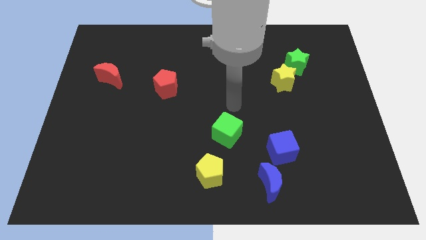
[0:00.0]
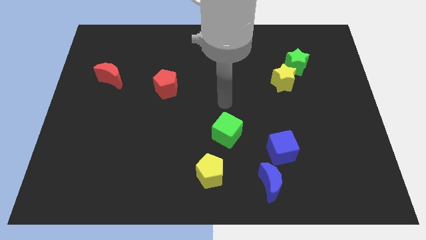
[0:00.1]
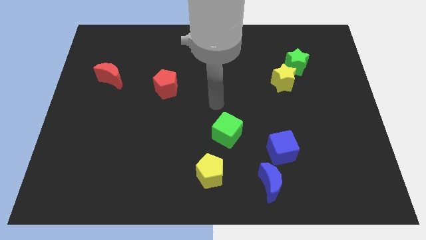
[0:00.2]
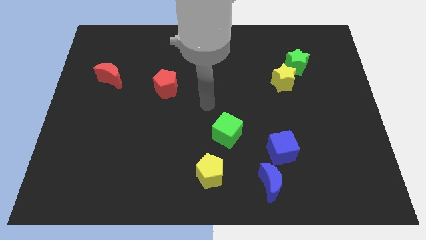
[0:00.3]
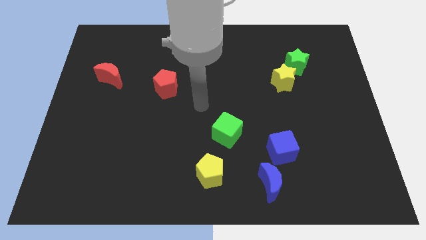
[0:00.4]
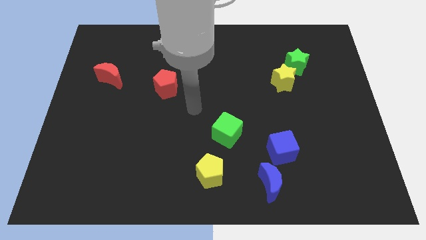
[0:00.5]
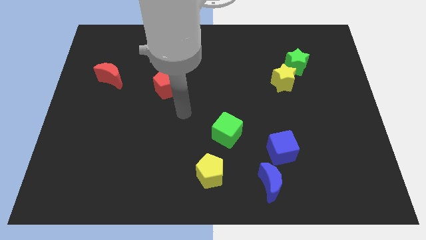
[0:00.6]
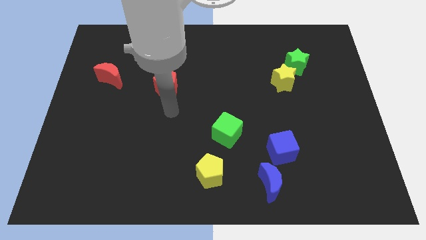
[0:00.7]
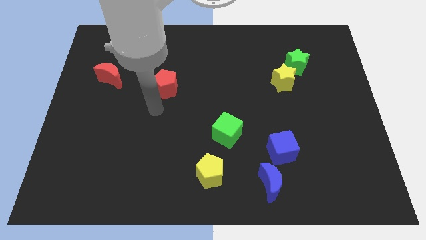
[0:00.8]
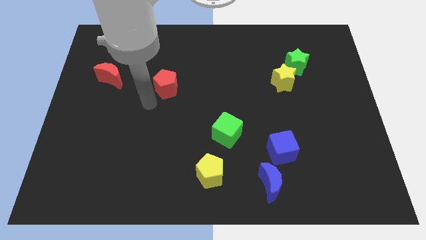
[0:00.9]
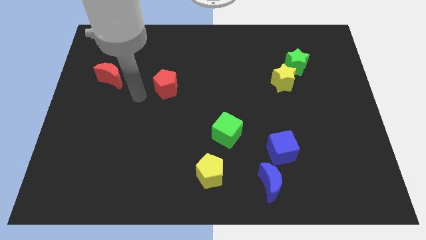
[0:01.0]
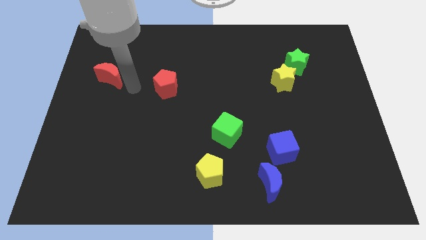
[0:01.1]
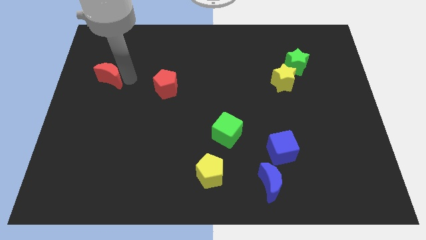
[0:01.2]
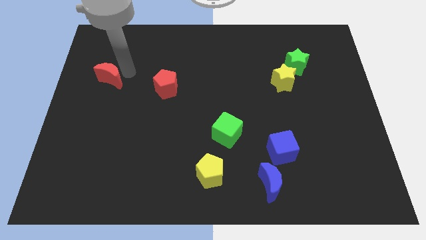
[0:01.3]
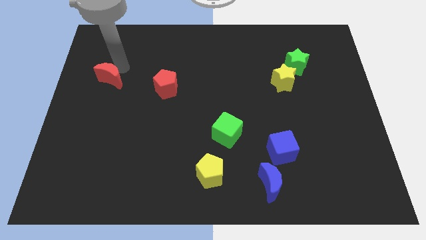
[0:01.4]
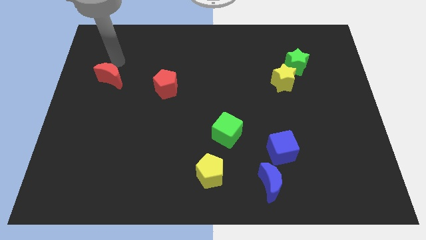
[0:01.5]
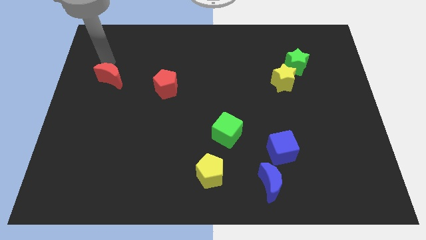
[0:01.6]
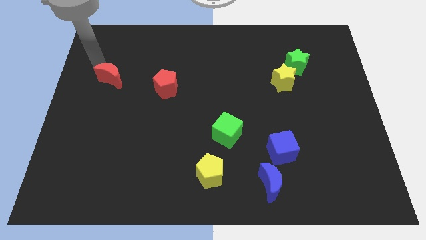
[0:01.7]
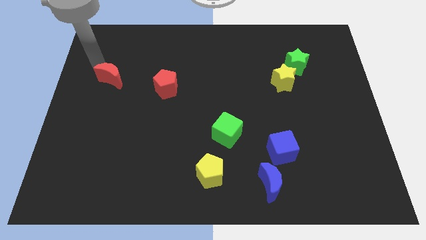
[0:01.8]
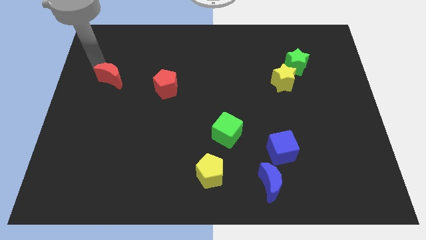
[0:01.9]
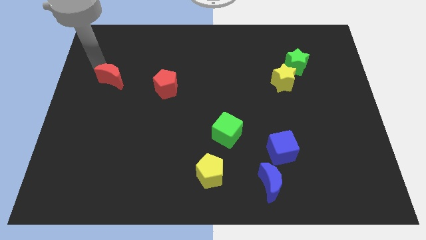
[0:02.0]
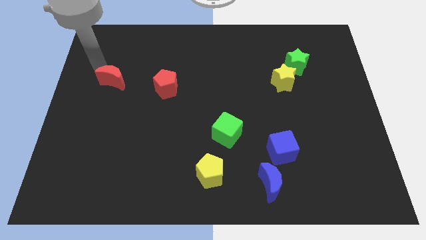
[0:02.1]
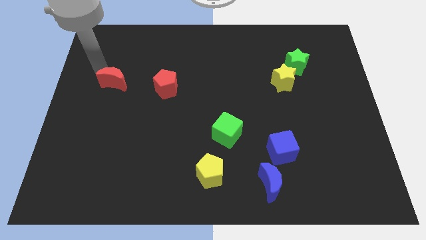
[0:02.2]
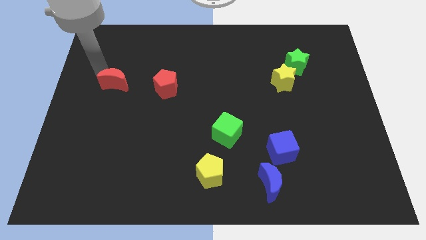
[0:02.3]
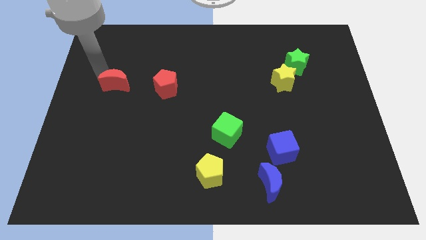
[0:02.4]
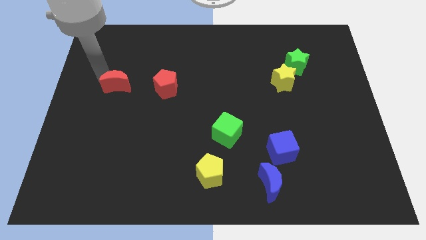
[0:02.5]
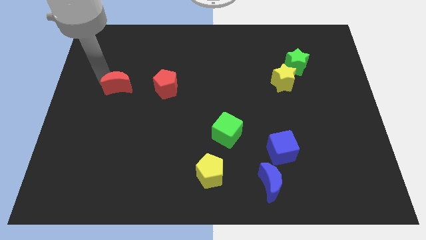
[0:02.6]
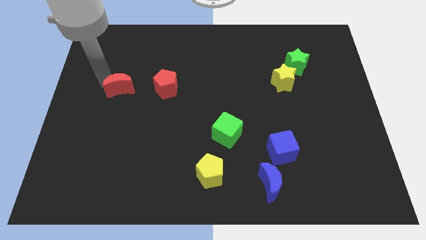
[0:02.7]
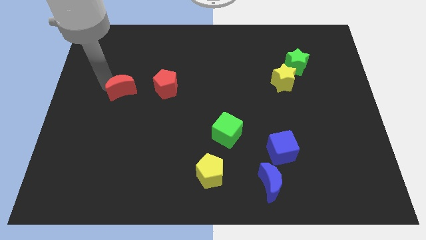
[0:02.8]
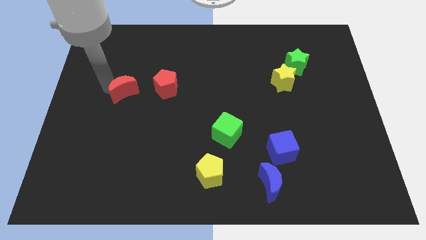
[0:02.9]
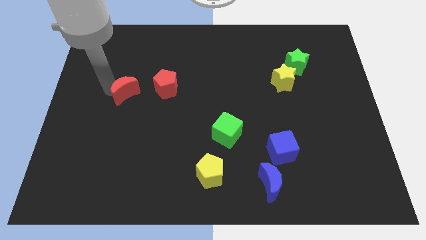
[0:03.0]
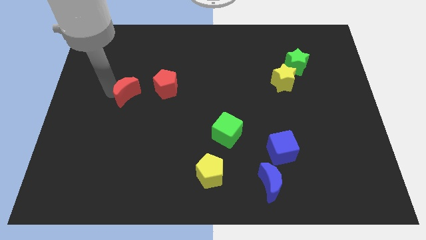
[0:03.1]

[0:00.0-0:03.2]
move the red moon somewhat diagonally down and to the right

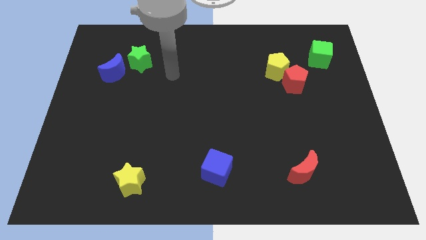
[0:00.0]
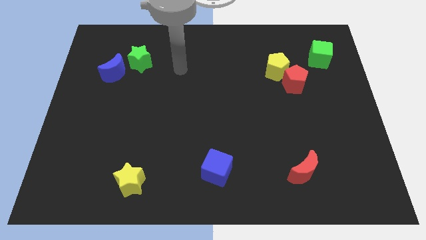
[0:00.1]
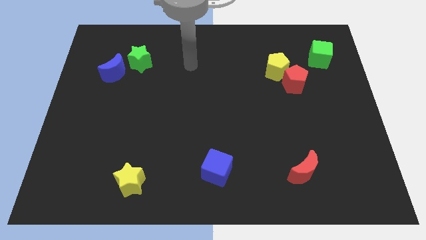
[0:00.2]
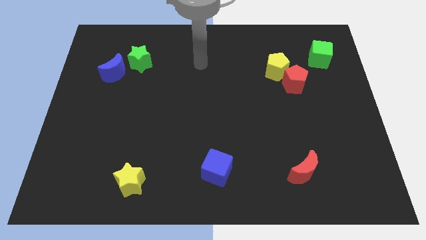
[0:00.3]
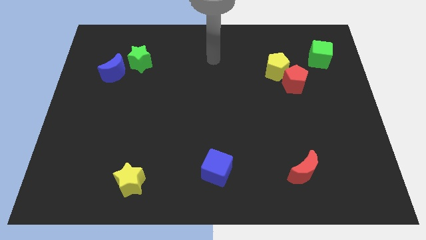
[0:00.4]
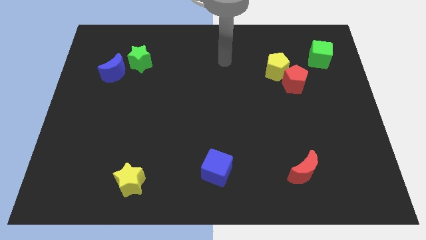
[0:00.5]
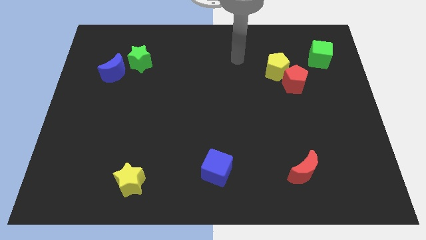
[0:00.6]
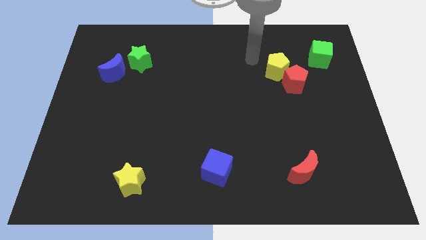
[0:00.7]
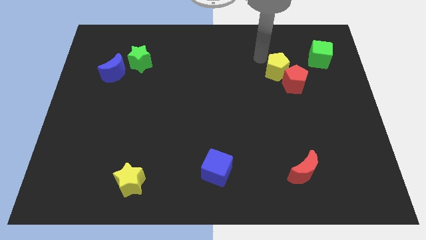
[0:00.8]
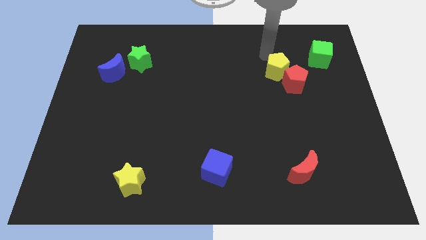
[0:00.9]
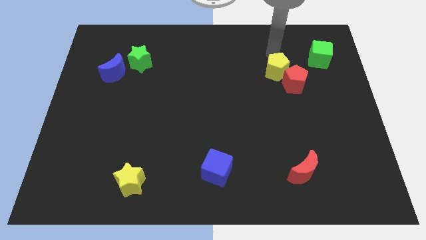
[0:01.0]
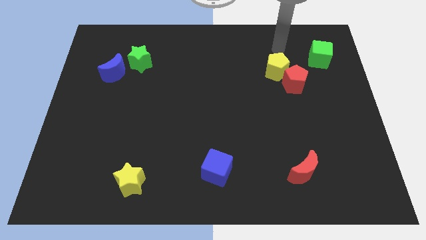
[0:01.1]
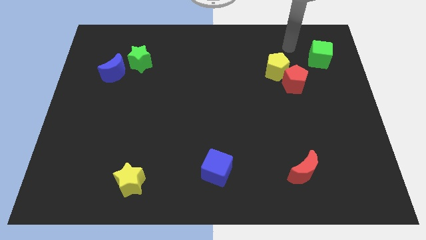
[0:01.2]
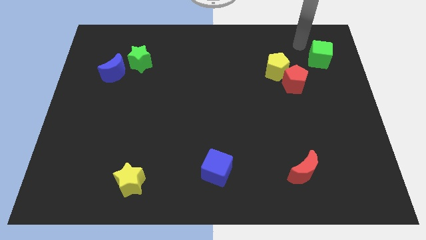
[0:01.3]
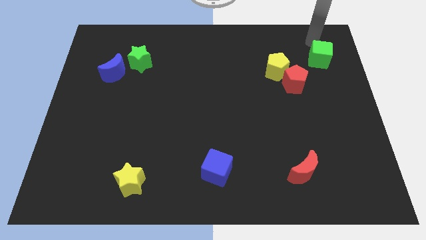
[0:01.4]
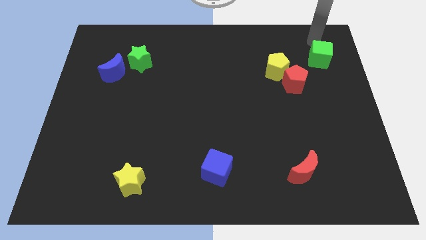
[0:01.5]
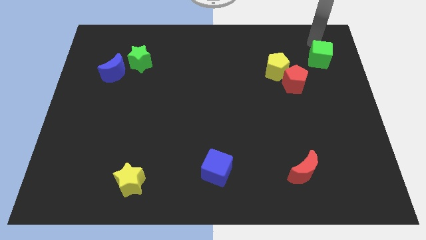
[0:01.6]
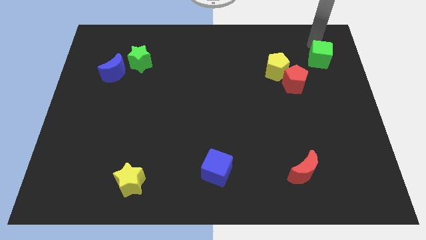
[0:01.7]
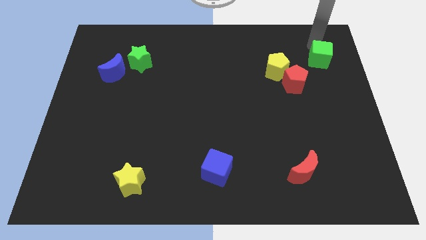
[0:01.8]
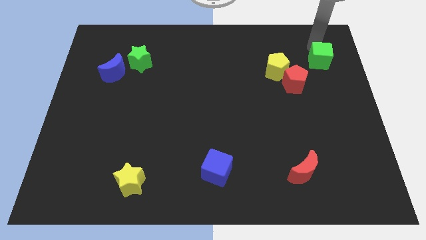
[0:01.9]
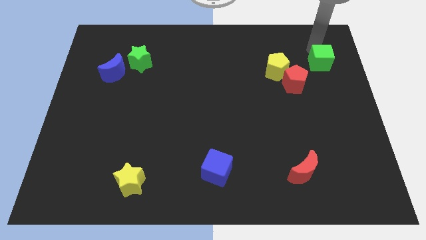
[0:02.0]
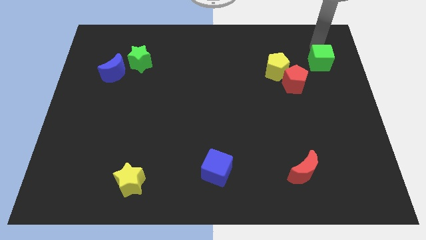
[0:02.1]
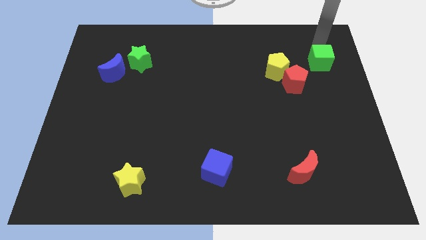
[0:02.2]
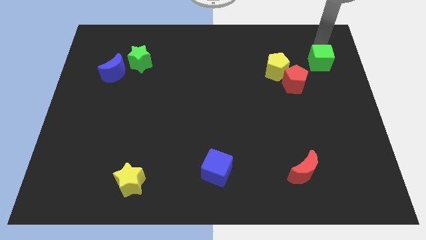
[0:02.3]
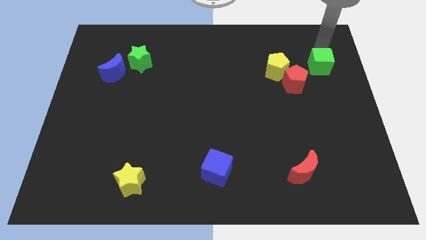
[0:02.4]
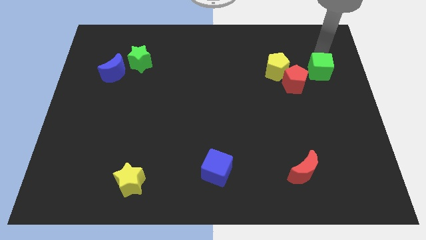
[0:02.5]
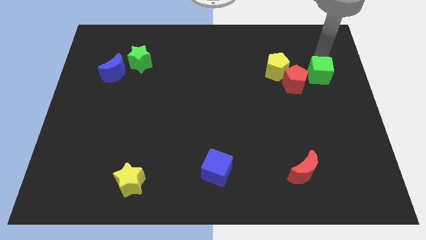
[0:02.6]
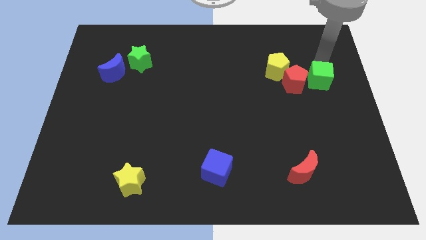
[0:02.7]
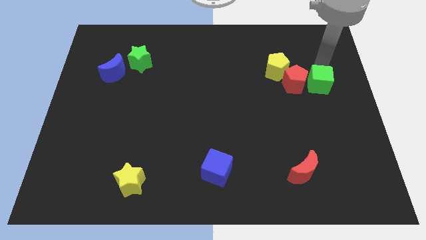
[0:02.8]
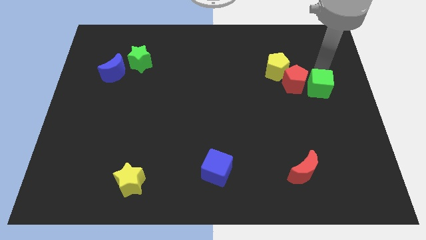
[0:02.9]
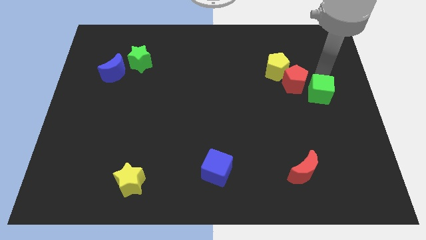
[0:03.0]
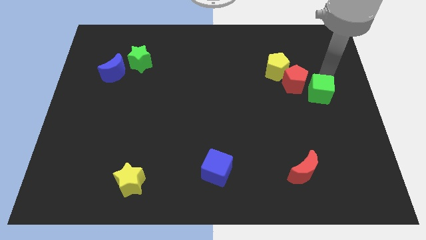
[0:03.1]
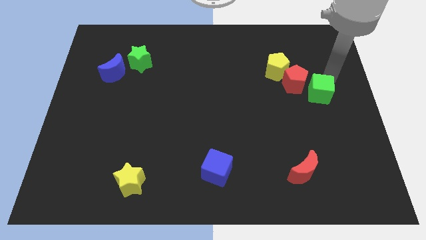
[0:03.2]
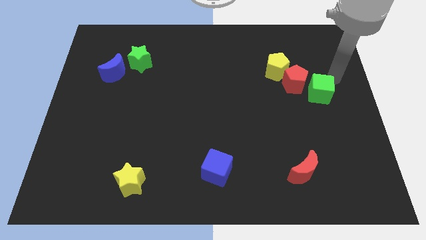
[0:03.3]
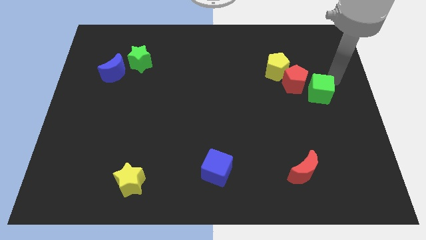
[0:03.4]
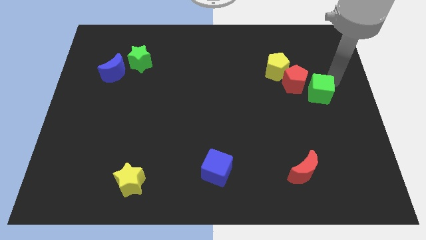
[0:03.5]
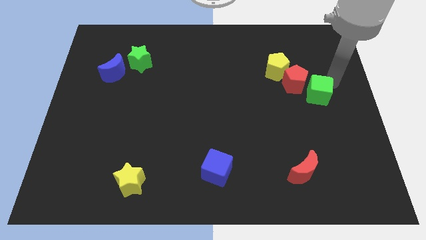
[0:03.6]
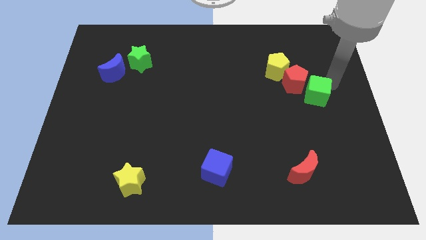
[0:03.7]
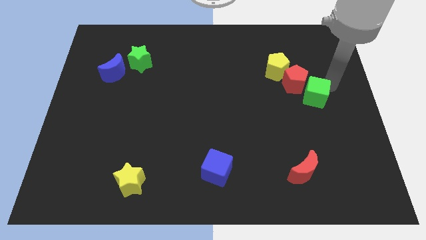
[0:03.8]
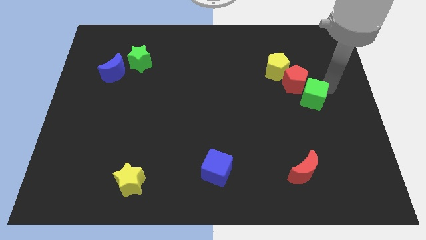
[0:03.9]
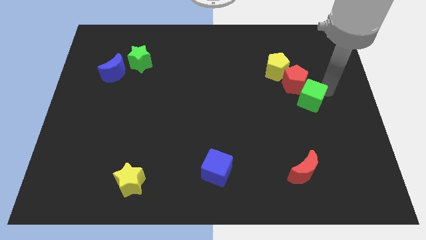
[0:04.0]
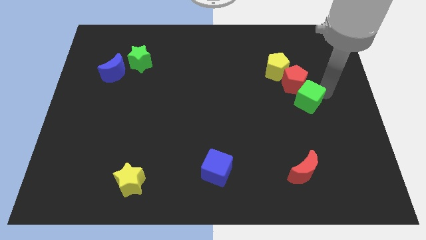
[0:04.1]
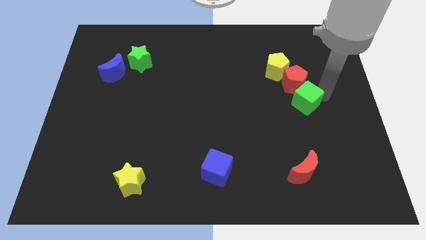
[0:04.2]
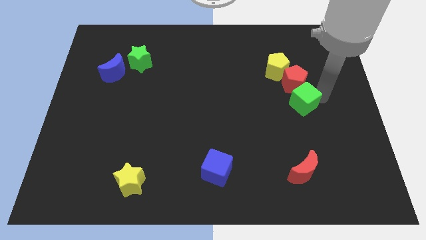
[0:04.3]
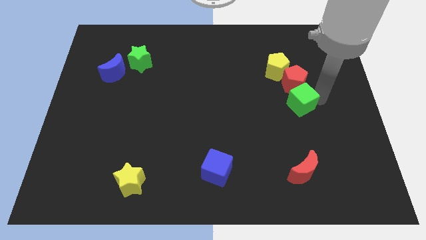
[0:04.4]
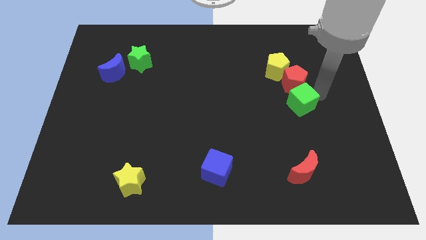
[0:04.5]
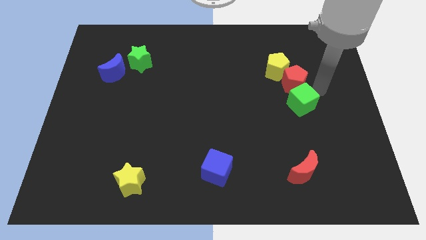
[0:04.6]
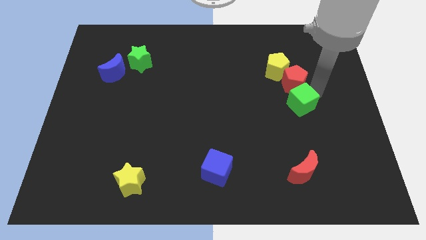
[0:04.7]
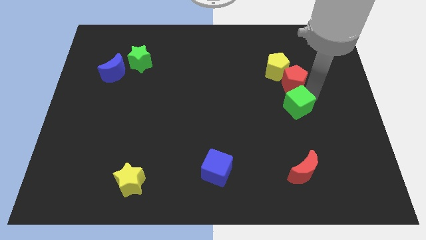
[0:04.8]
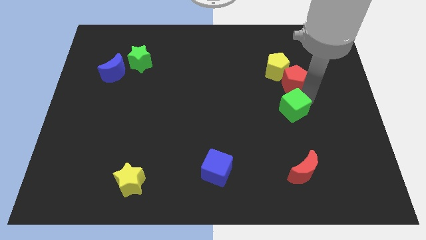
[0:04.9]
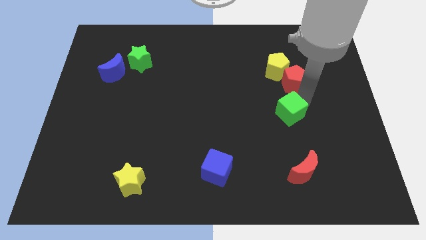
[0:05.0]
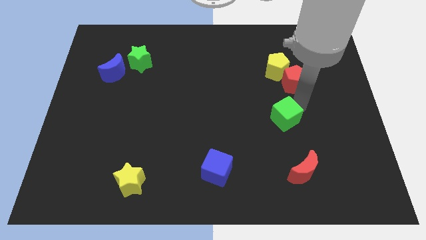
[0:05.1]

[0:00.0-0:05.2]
push the green cube downwards and then left
